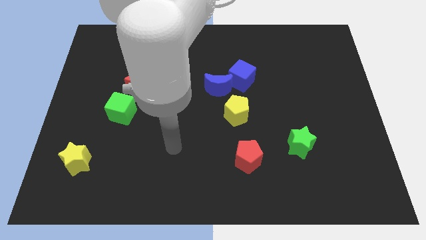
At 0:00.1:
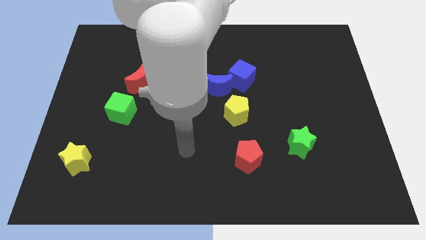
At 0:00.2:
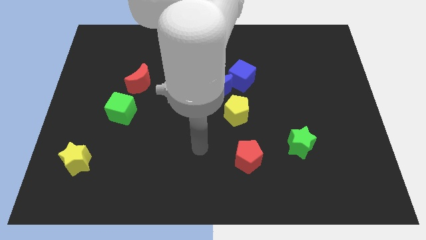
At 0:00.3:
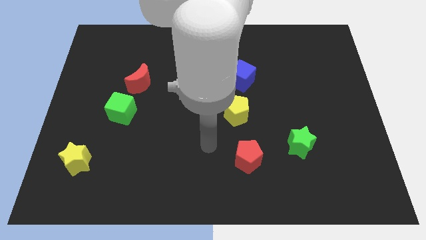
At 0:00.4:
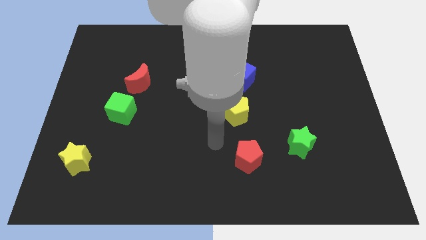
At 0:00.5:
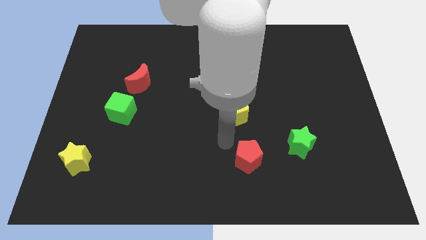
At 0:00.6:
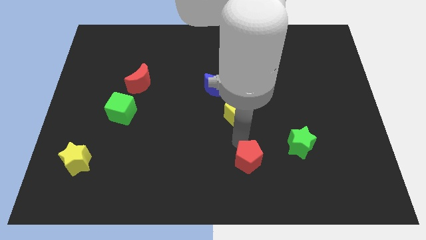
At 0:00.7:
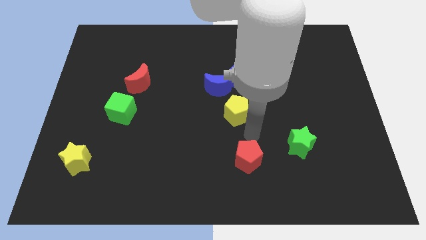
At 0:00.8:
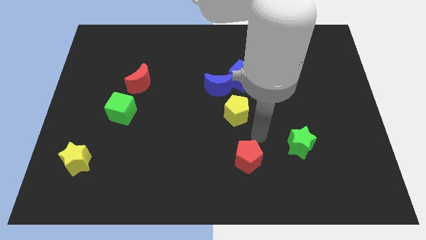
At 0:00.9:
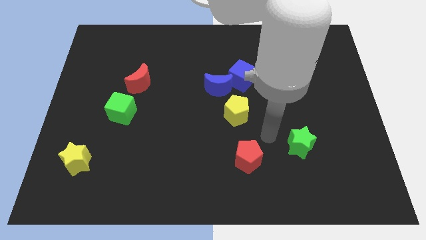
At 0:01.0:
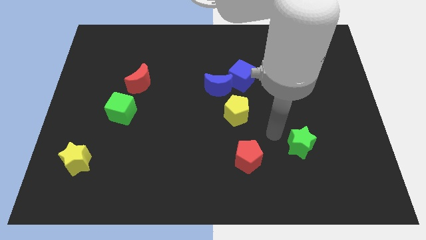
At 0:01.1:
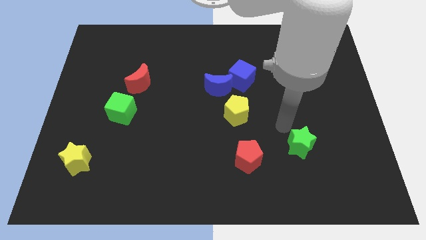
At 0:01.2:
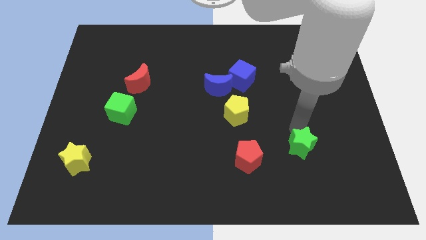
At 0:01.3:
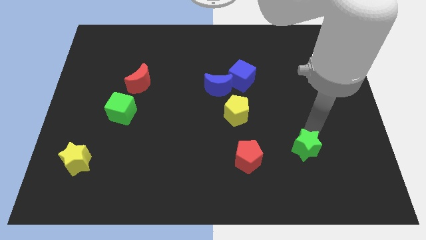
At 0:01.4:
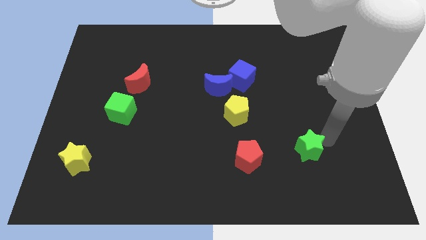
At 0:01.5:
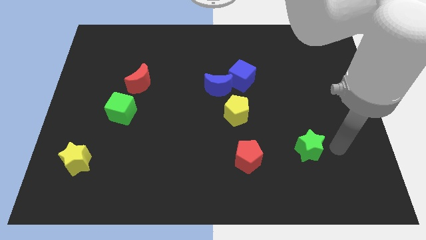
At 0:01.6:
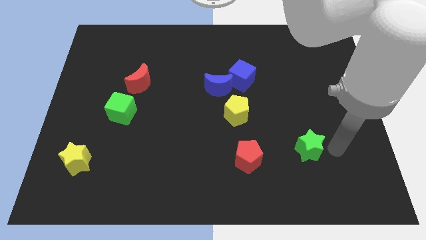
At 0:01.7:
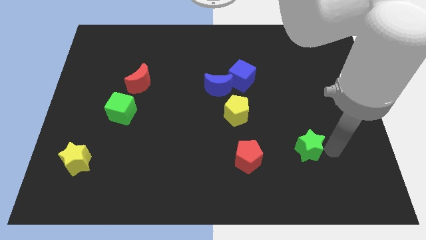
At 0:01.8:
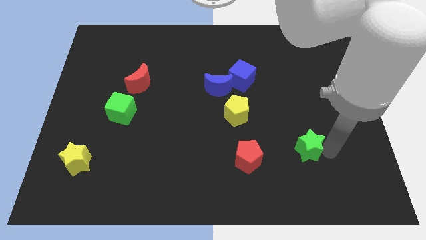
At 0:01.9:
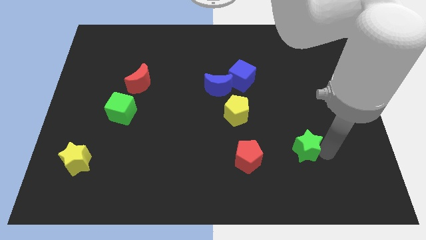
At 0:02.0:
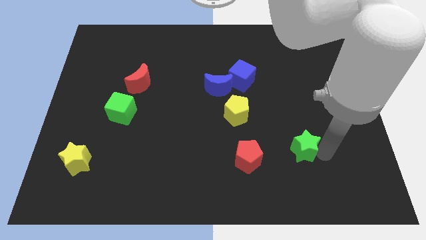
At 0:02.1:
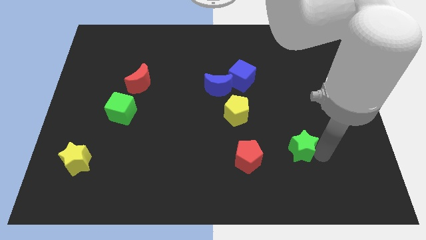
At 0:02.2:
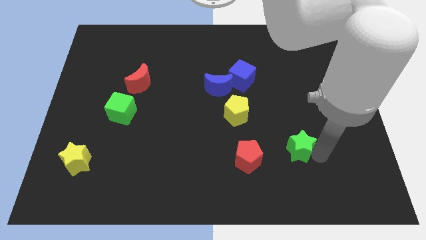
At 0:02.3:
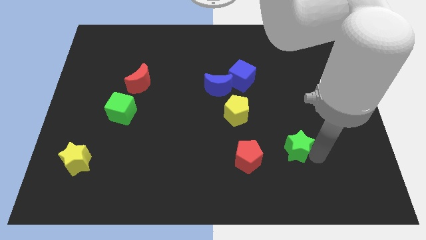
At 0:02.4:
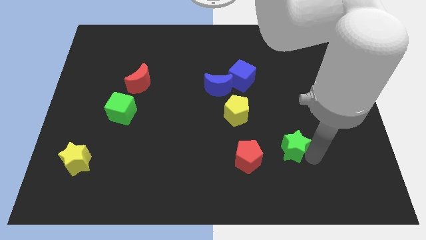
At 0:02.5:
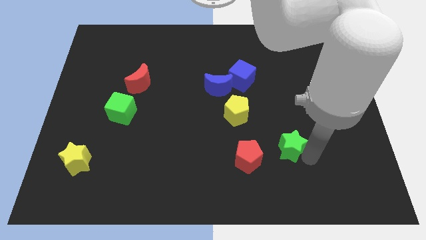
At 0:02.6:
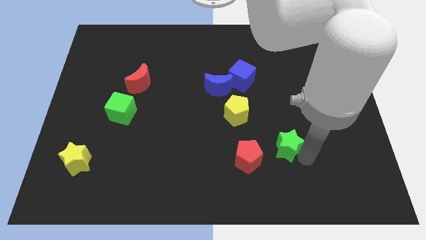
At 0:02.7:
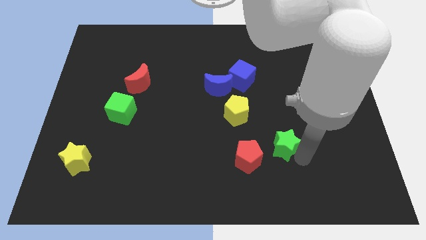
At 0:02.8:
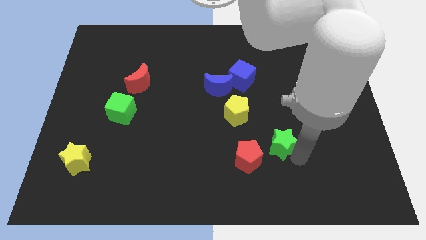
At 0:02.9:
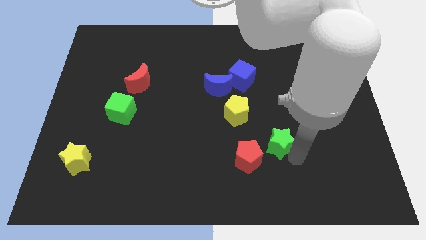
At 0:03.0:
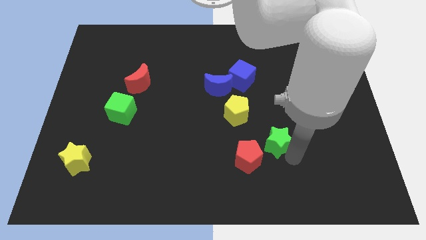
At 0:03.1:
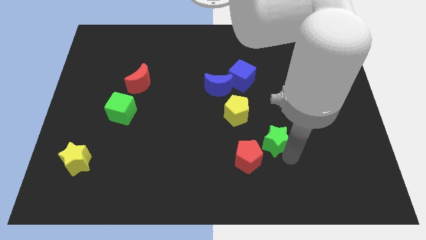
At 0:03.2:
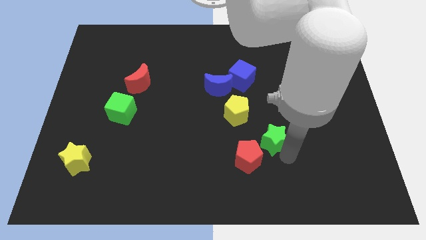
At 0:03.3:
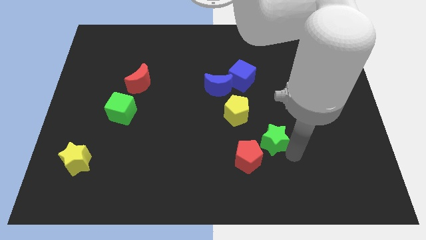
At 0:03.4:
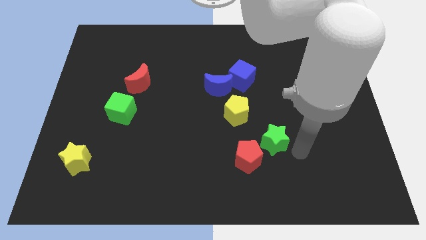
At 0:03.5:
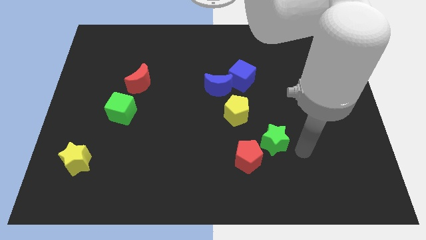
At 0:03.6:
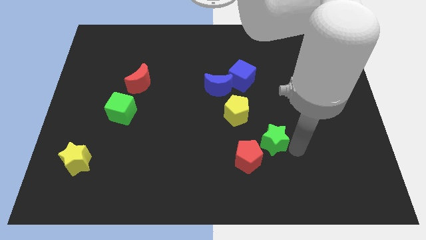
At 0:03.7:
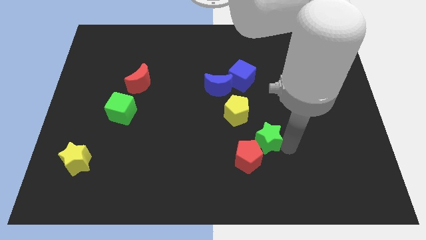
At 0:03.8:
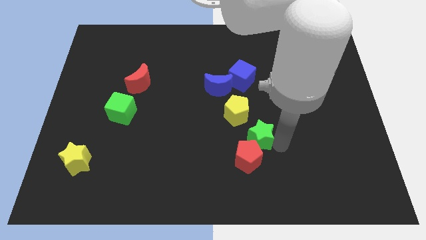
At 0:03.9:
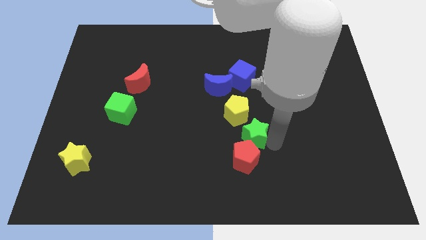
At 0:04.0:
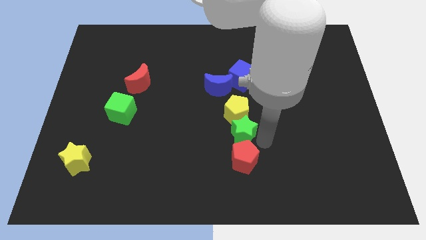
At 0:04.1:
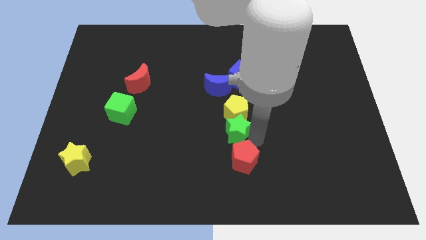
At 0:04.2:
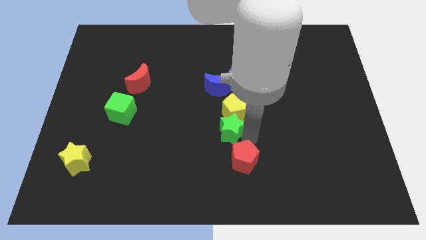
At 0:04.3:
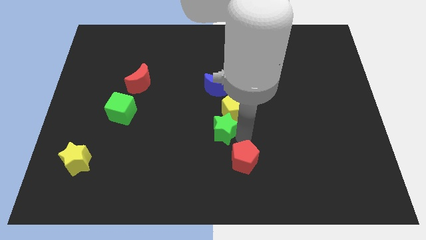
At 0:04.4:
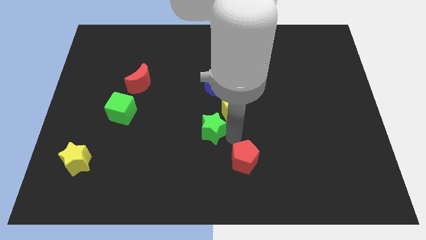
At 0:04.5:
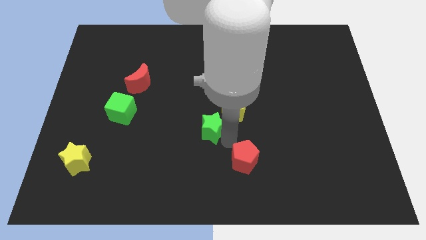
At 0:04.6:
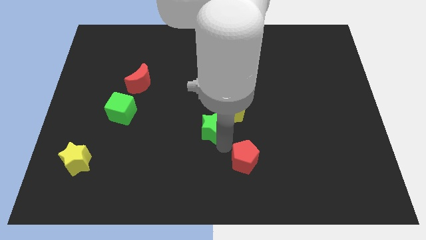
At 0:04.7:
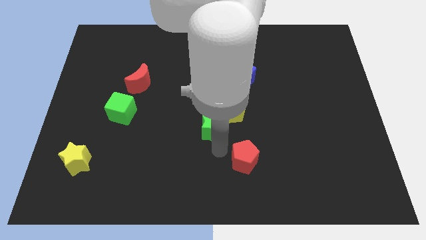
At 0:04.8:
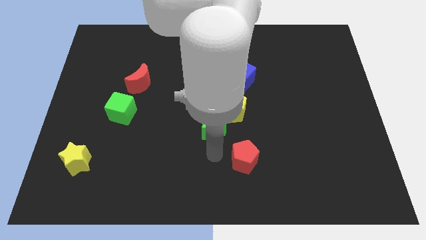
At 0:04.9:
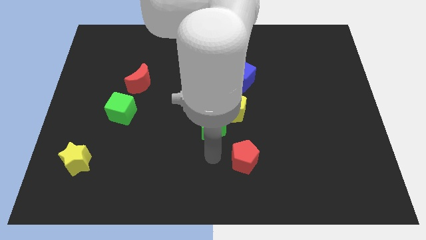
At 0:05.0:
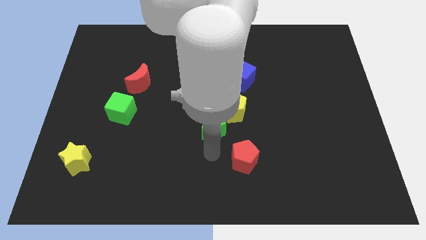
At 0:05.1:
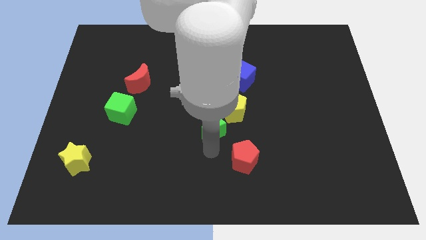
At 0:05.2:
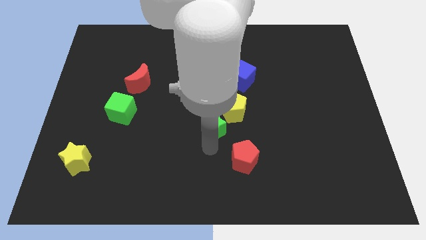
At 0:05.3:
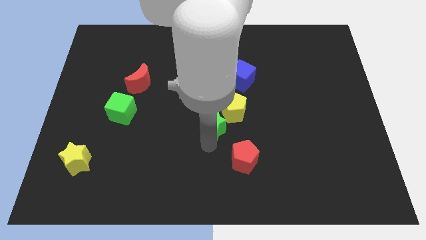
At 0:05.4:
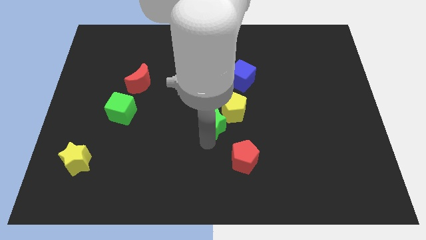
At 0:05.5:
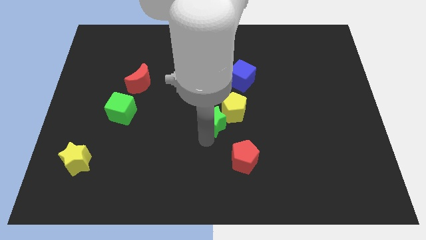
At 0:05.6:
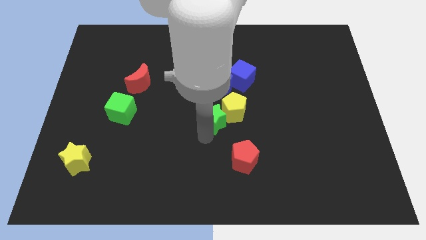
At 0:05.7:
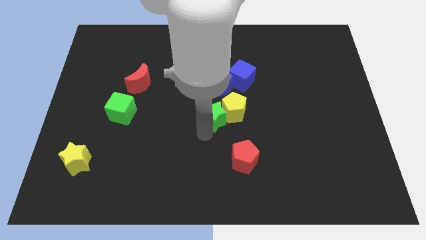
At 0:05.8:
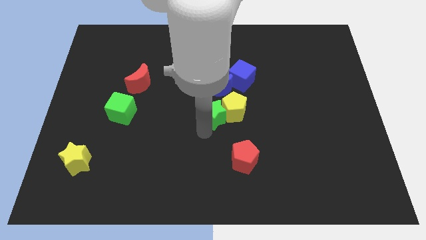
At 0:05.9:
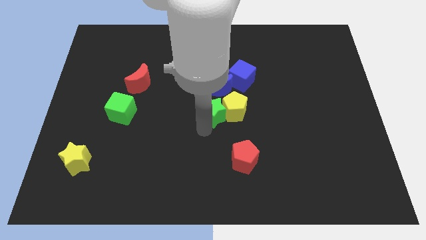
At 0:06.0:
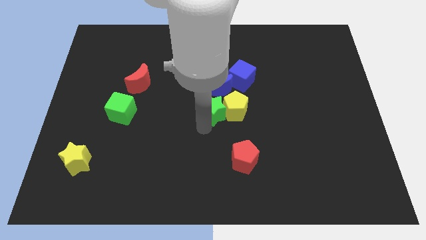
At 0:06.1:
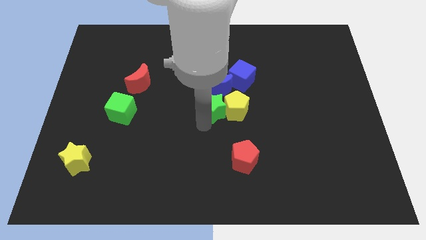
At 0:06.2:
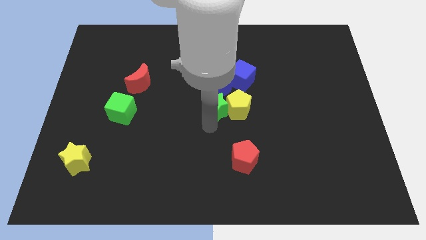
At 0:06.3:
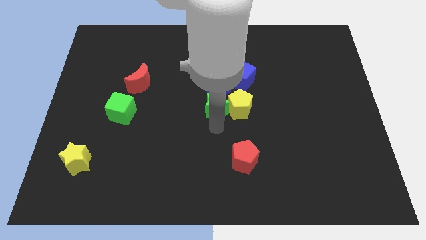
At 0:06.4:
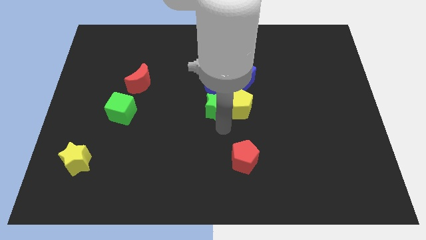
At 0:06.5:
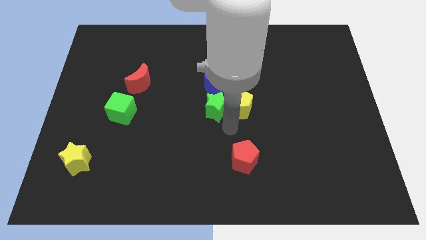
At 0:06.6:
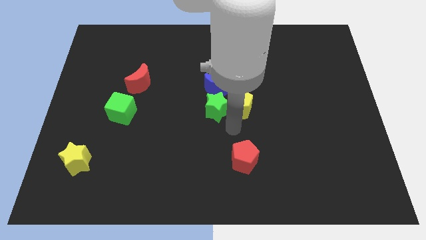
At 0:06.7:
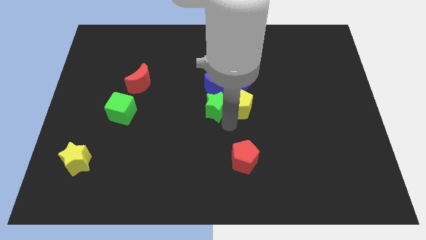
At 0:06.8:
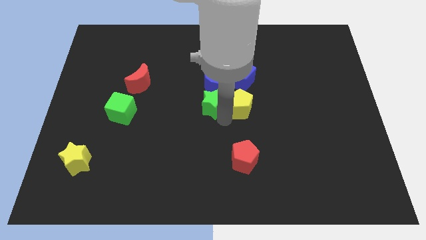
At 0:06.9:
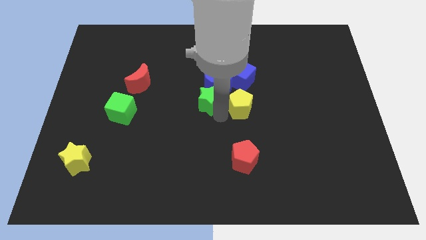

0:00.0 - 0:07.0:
move the green star diagonally up and to the left

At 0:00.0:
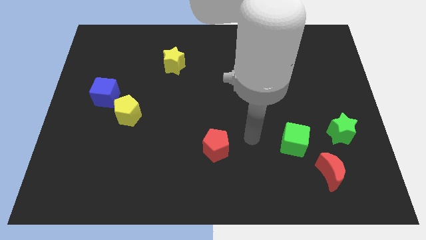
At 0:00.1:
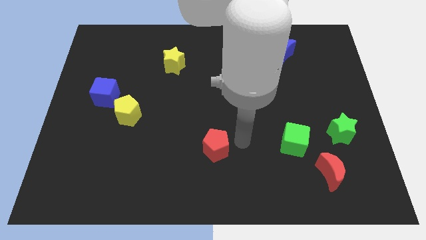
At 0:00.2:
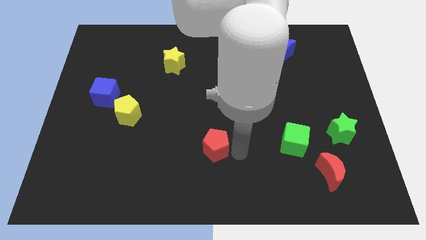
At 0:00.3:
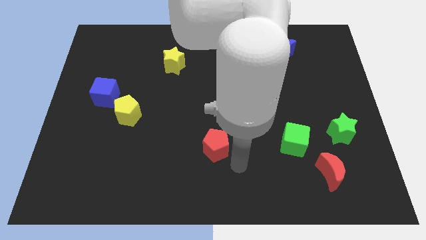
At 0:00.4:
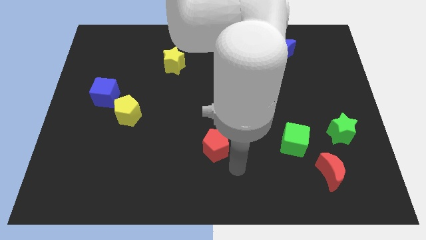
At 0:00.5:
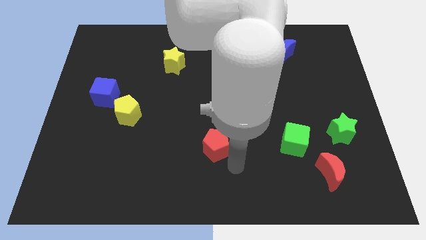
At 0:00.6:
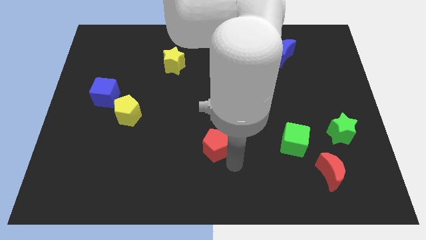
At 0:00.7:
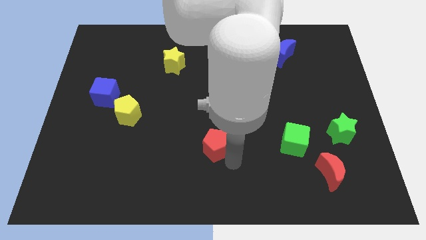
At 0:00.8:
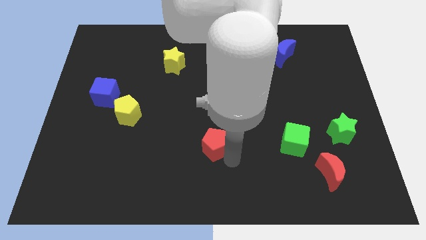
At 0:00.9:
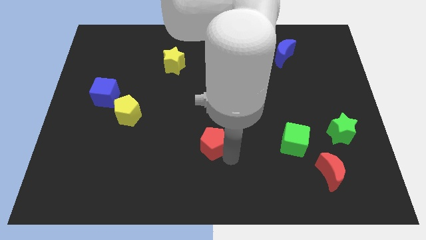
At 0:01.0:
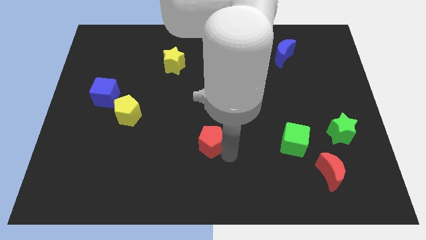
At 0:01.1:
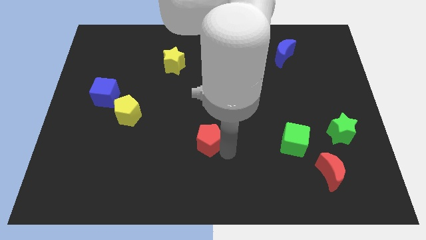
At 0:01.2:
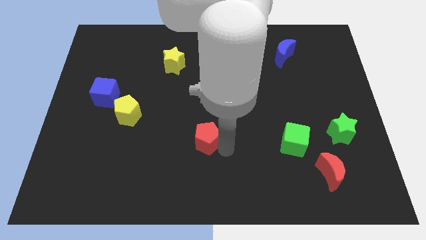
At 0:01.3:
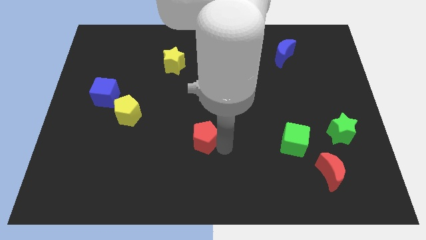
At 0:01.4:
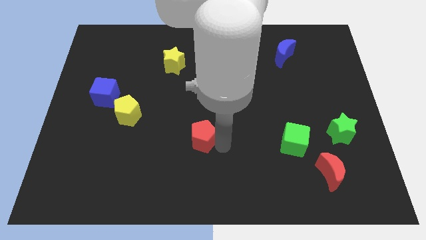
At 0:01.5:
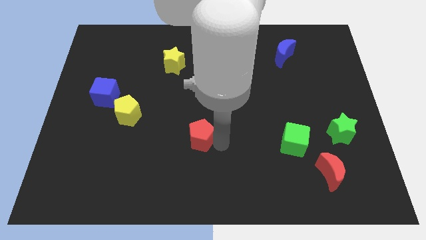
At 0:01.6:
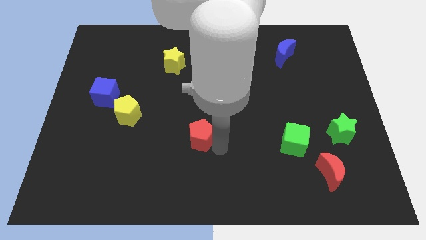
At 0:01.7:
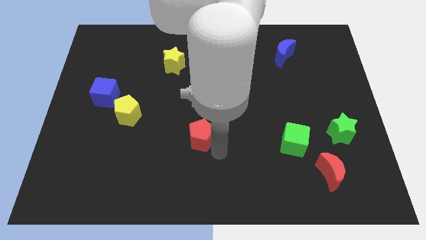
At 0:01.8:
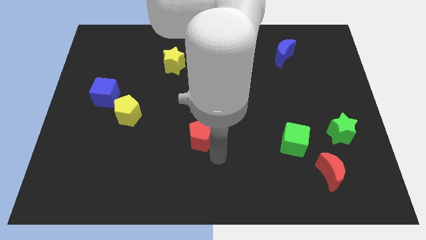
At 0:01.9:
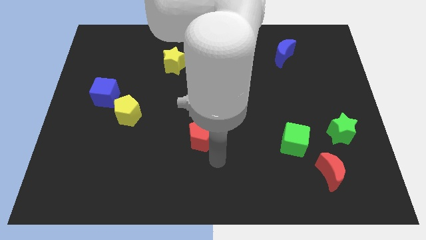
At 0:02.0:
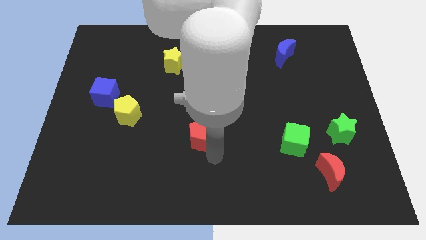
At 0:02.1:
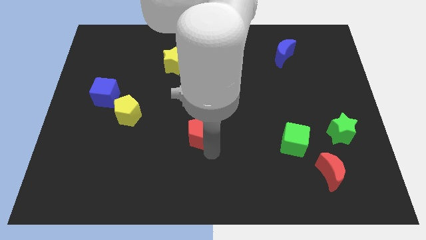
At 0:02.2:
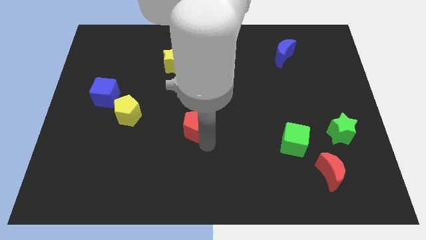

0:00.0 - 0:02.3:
slightly move the red pentagon diagonally up and to the left
